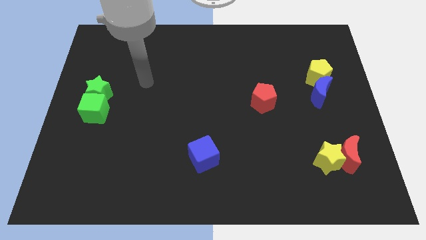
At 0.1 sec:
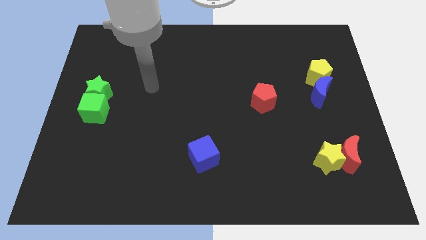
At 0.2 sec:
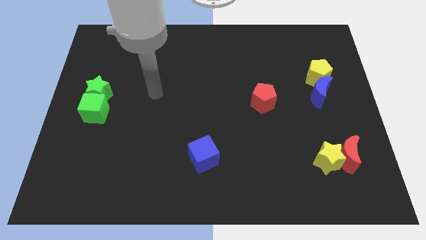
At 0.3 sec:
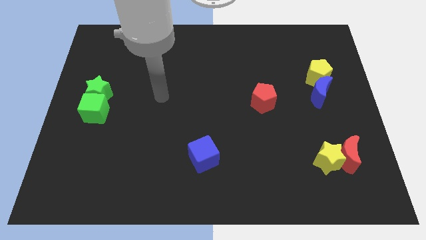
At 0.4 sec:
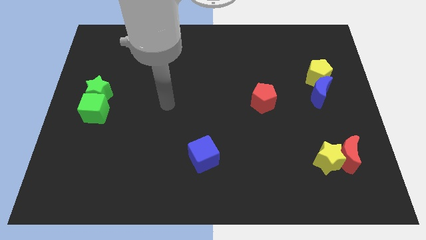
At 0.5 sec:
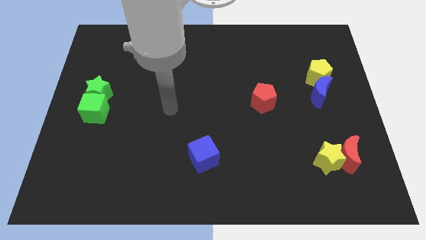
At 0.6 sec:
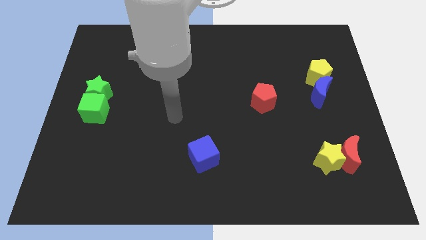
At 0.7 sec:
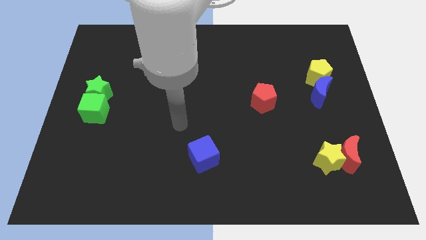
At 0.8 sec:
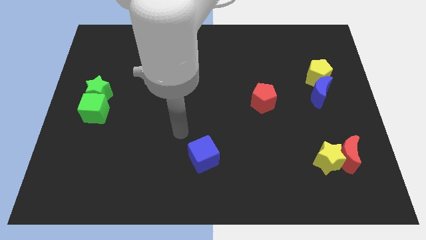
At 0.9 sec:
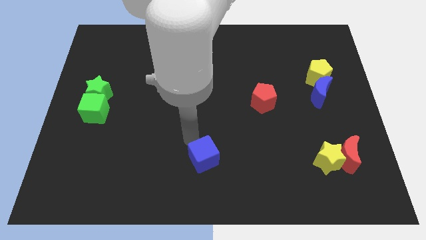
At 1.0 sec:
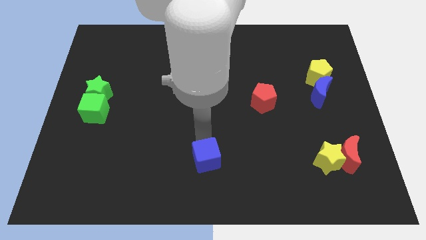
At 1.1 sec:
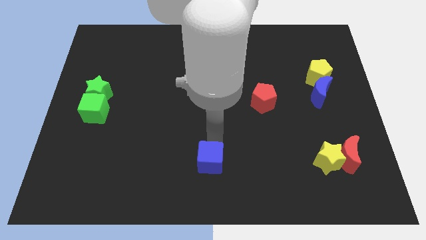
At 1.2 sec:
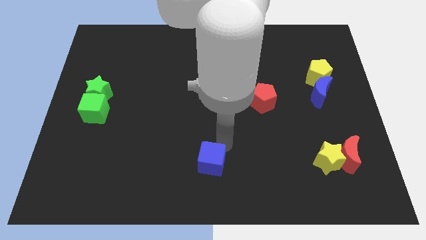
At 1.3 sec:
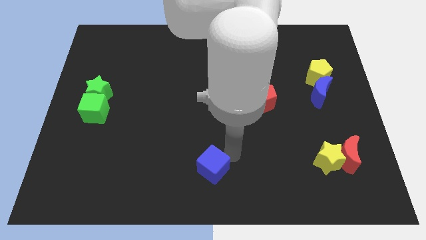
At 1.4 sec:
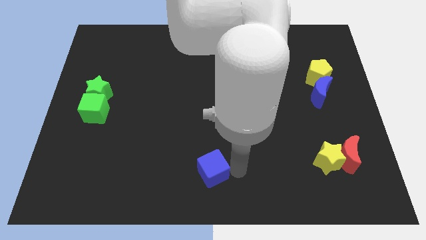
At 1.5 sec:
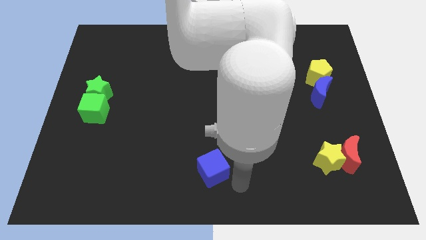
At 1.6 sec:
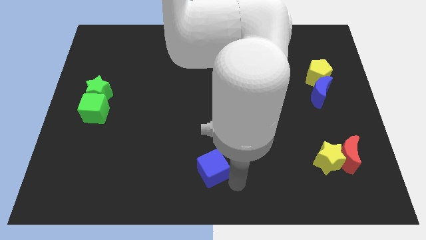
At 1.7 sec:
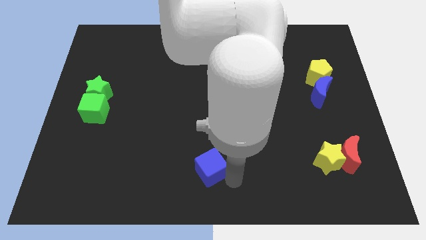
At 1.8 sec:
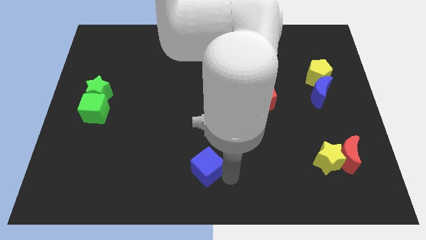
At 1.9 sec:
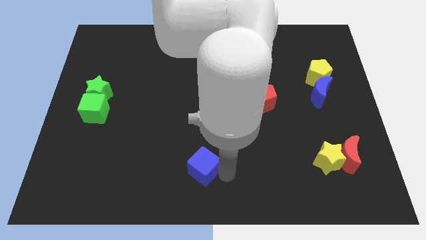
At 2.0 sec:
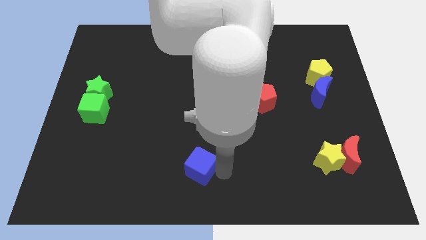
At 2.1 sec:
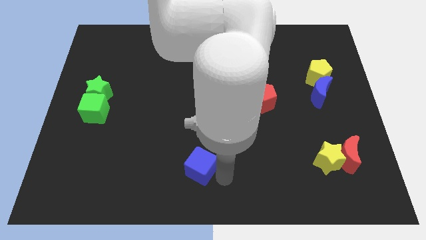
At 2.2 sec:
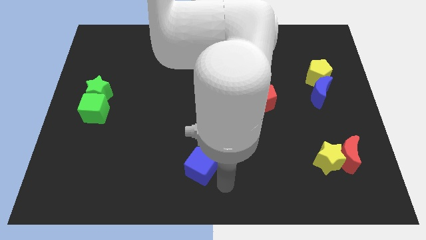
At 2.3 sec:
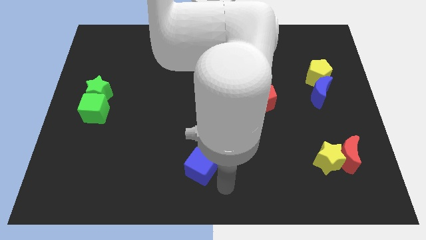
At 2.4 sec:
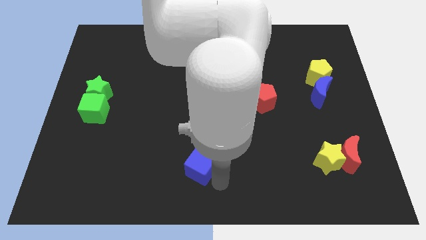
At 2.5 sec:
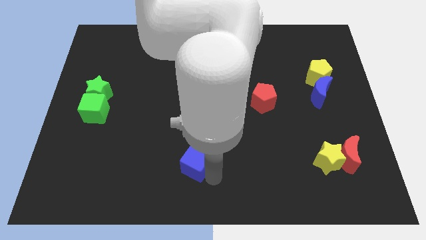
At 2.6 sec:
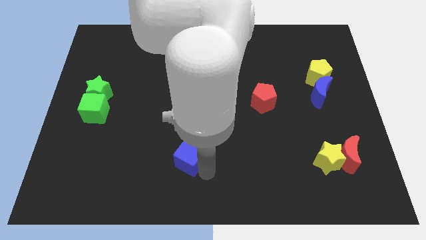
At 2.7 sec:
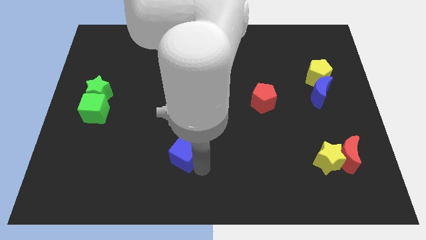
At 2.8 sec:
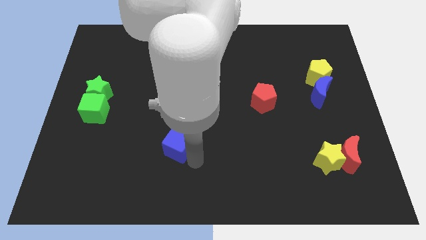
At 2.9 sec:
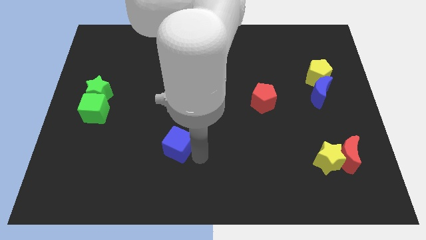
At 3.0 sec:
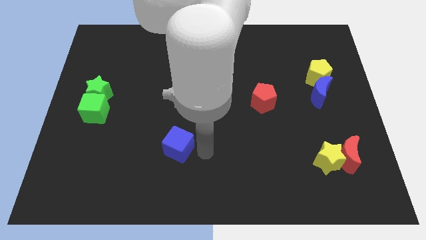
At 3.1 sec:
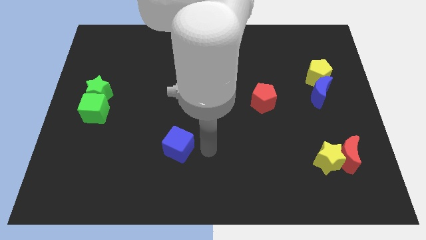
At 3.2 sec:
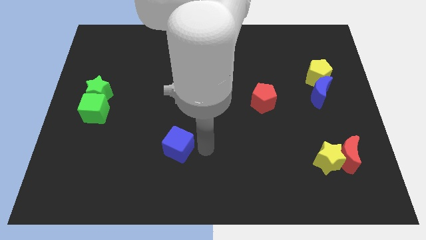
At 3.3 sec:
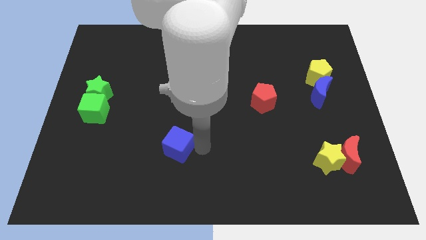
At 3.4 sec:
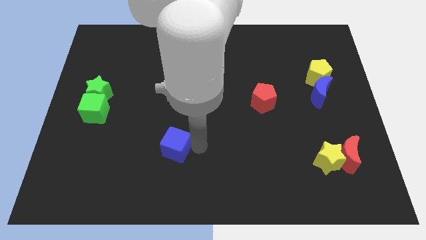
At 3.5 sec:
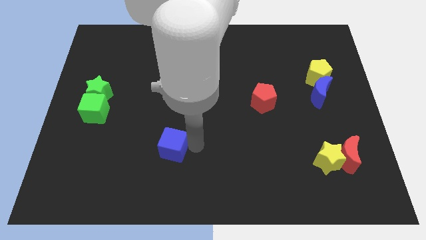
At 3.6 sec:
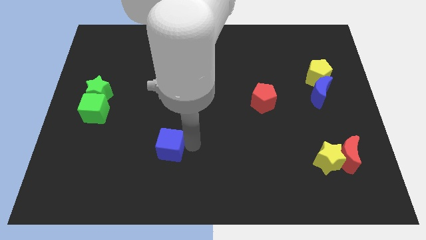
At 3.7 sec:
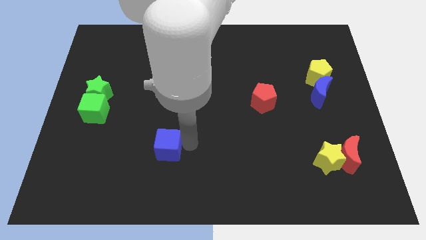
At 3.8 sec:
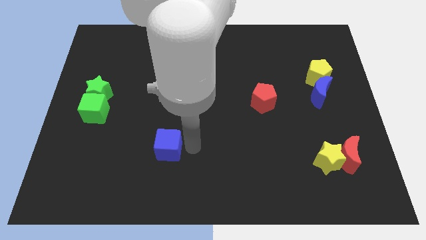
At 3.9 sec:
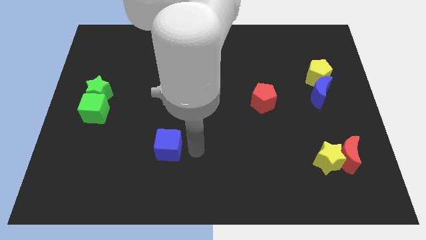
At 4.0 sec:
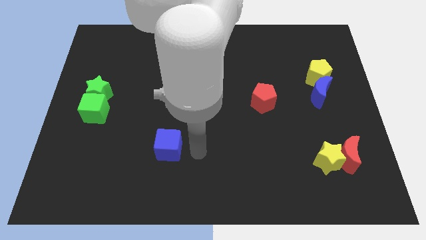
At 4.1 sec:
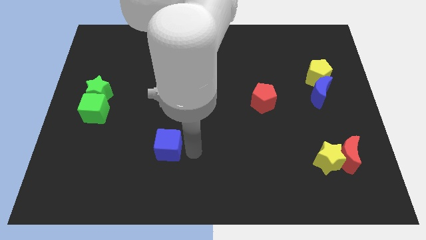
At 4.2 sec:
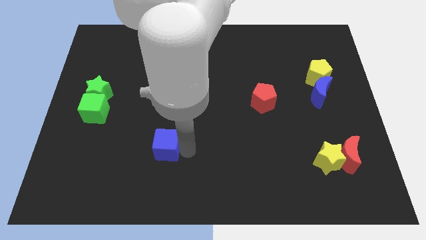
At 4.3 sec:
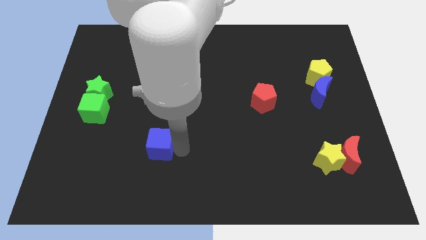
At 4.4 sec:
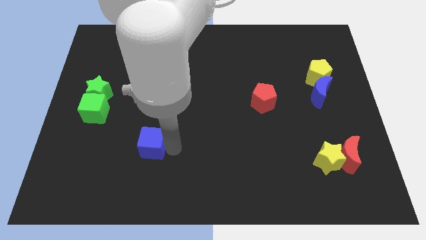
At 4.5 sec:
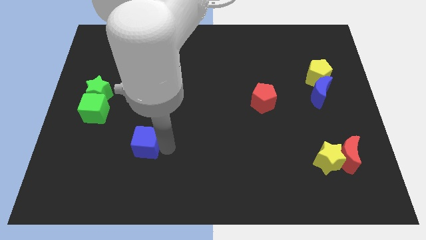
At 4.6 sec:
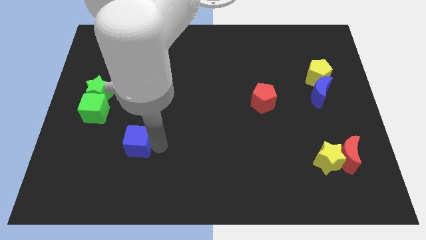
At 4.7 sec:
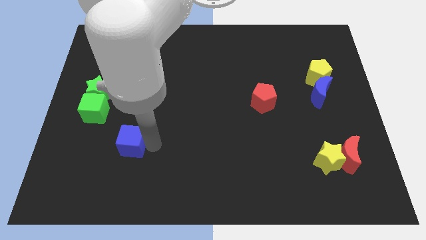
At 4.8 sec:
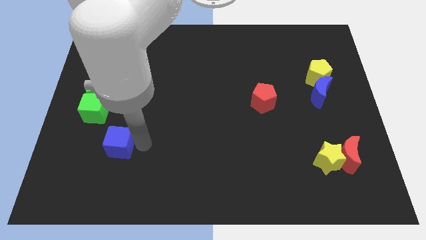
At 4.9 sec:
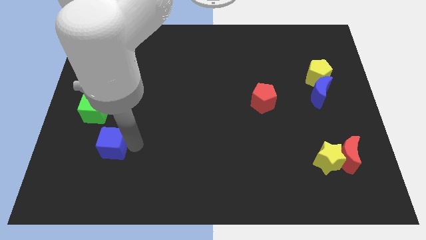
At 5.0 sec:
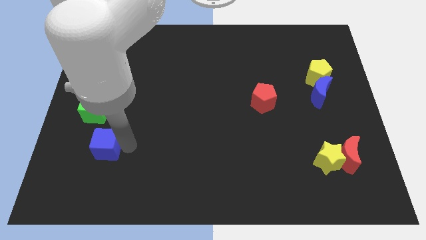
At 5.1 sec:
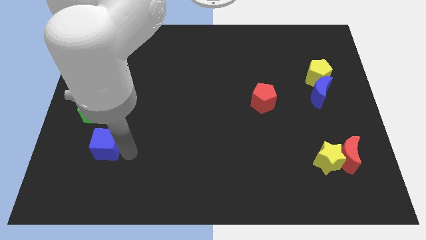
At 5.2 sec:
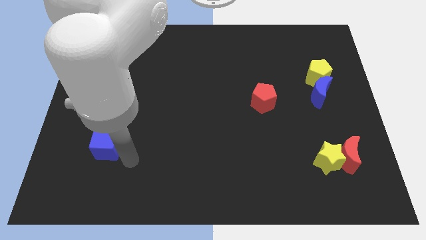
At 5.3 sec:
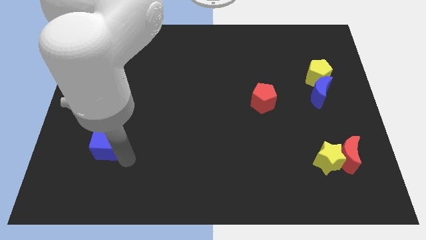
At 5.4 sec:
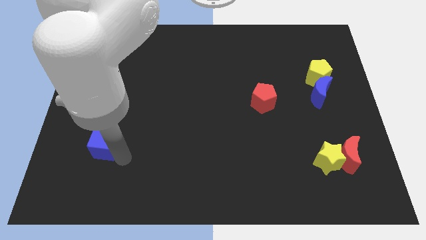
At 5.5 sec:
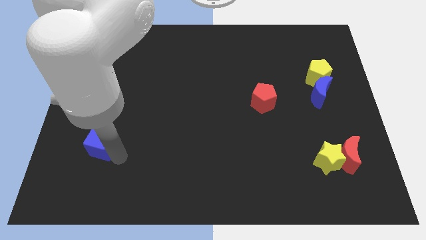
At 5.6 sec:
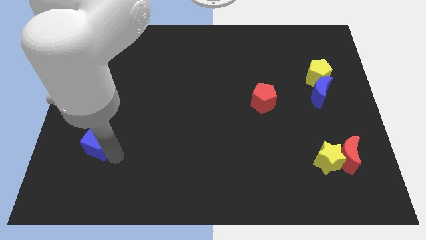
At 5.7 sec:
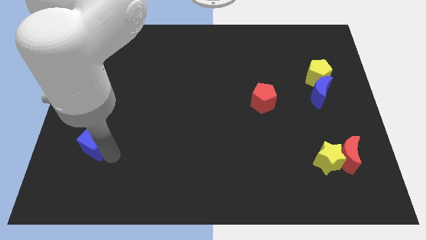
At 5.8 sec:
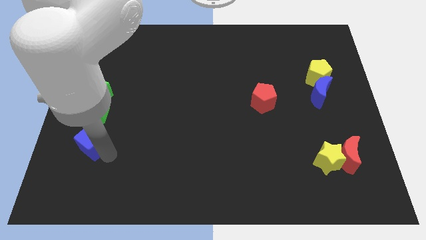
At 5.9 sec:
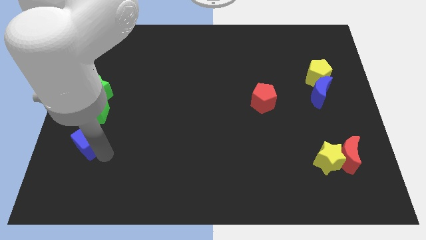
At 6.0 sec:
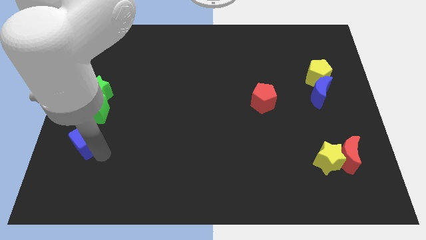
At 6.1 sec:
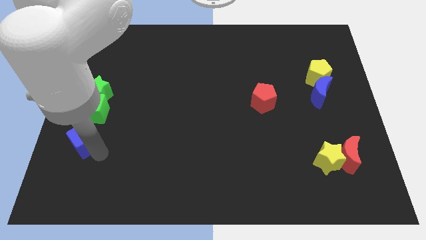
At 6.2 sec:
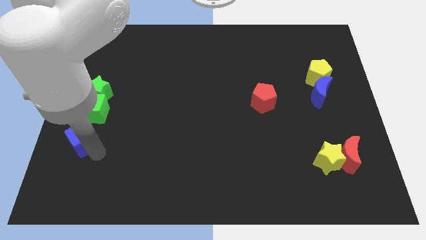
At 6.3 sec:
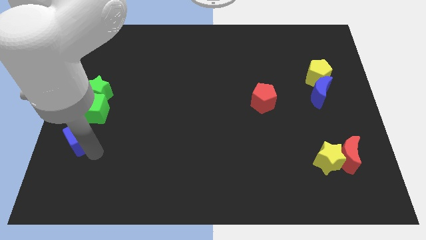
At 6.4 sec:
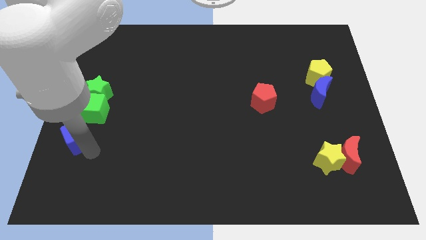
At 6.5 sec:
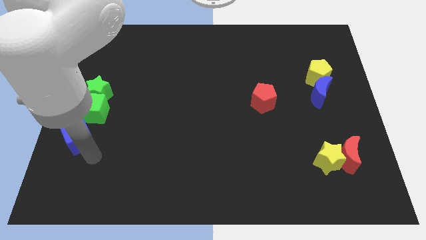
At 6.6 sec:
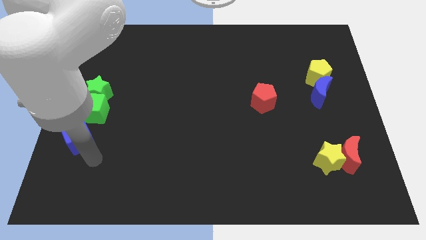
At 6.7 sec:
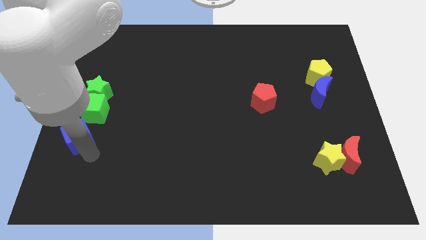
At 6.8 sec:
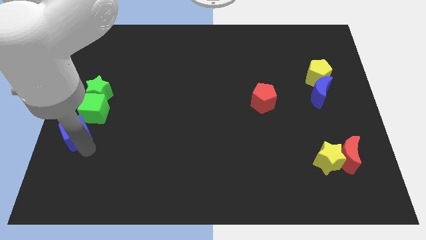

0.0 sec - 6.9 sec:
put the blue cube to the left side of the board
